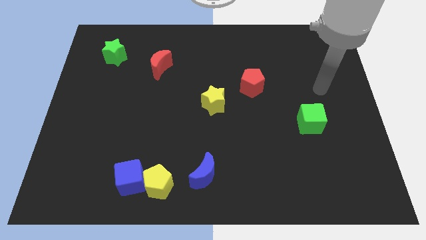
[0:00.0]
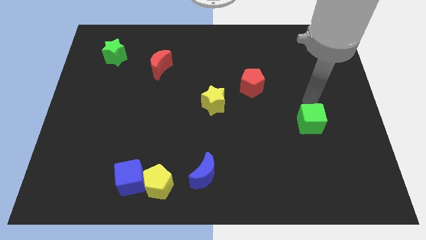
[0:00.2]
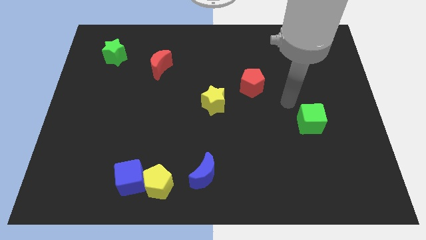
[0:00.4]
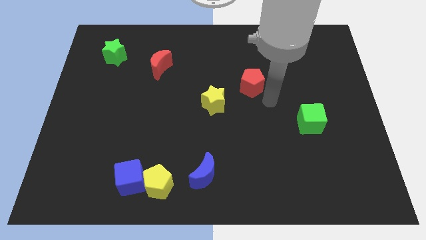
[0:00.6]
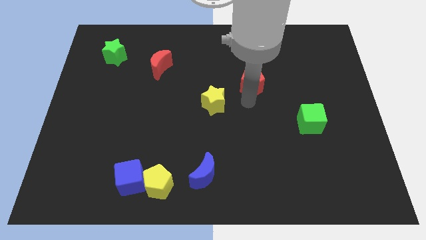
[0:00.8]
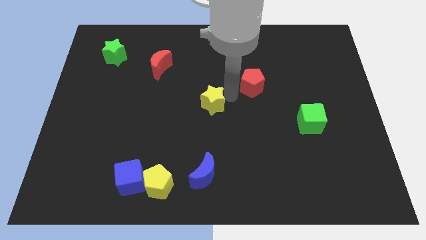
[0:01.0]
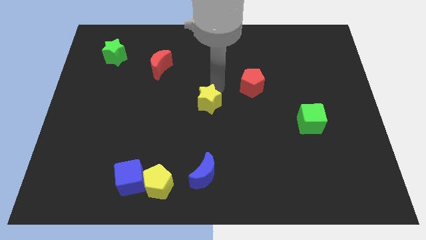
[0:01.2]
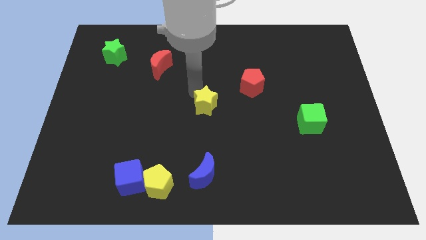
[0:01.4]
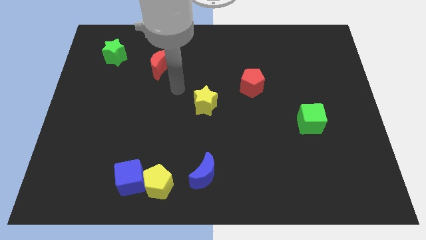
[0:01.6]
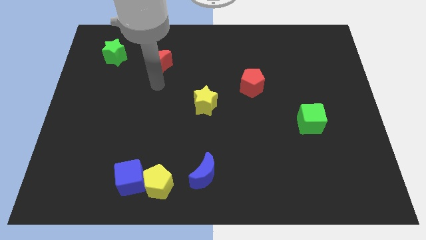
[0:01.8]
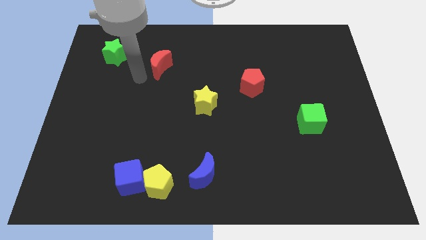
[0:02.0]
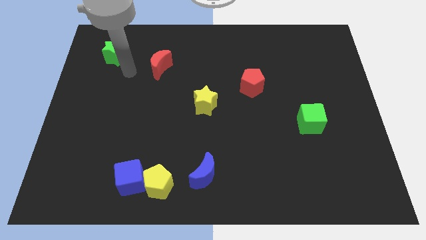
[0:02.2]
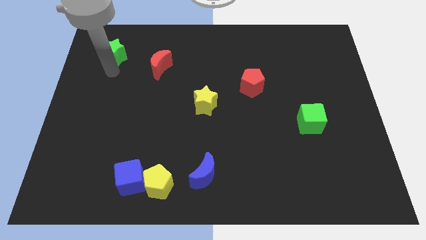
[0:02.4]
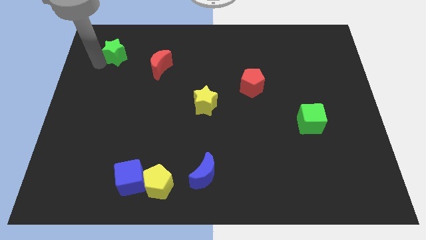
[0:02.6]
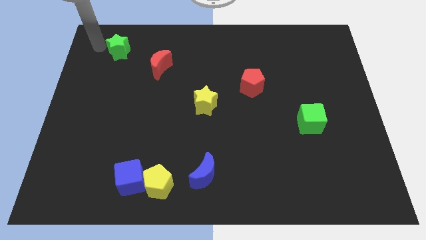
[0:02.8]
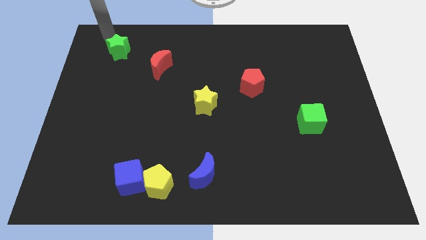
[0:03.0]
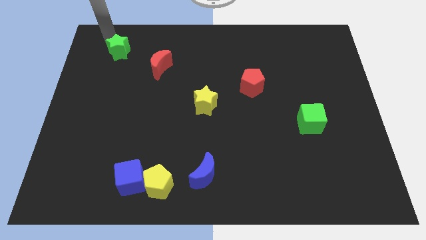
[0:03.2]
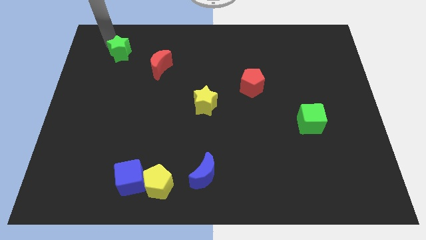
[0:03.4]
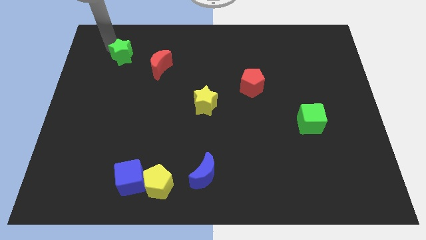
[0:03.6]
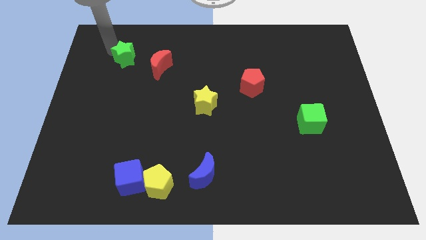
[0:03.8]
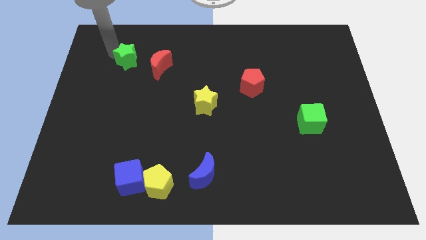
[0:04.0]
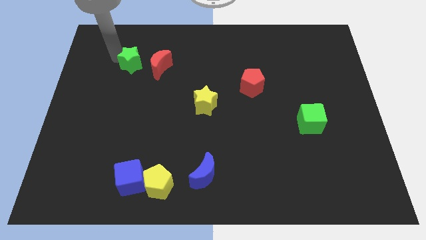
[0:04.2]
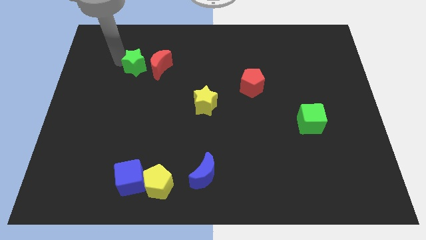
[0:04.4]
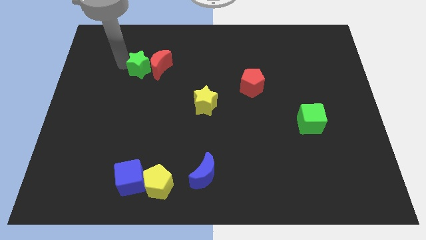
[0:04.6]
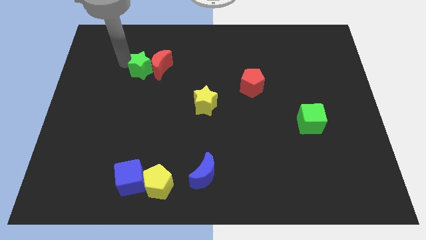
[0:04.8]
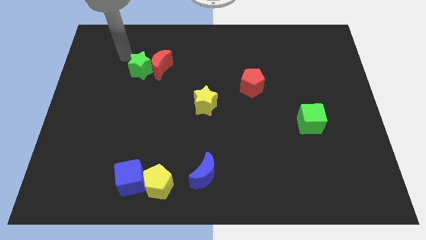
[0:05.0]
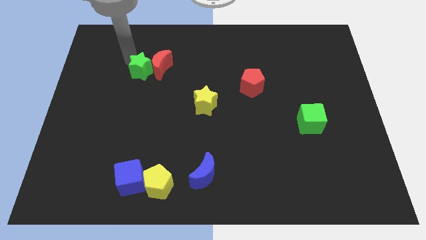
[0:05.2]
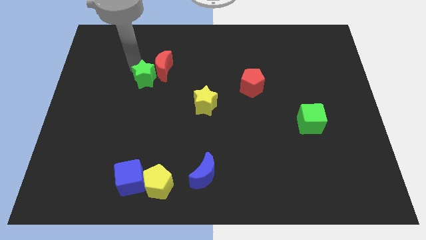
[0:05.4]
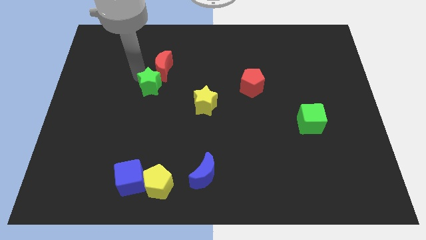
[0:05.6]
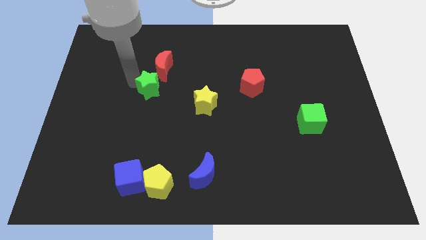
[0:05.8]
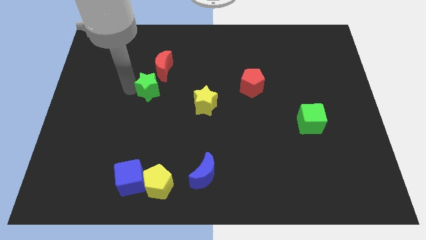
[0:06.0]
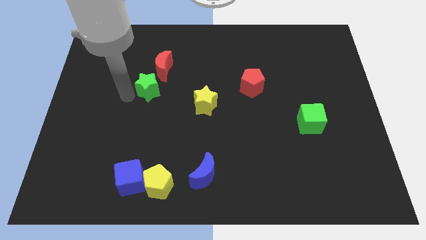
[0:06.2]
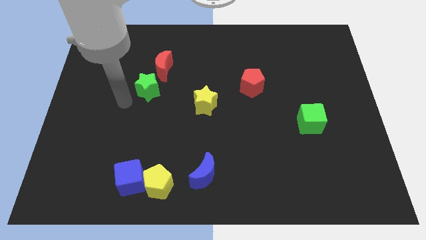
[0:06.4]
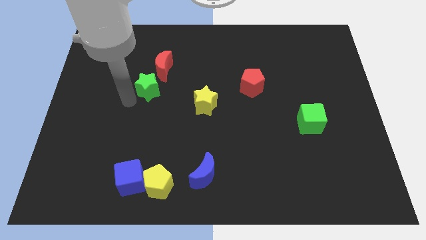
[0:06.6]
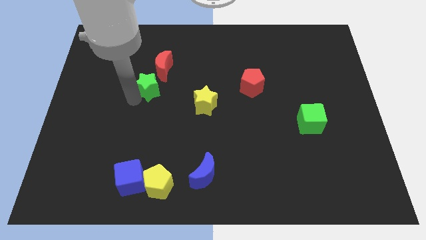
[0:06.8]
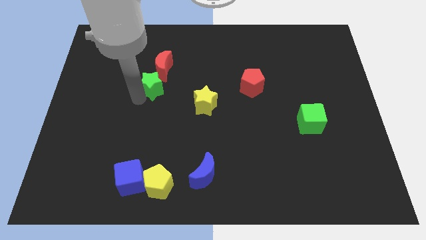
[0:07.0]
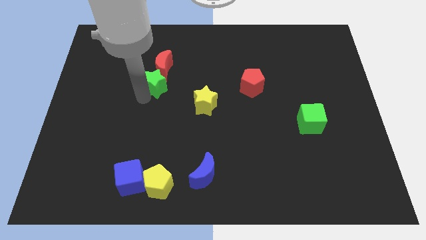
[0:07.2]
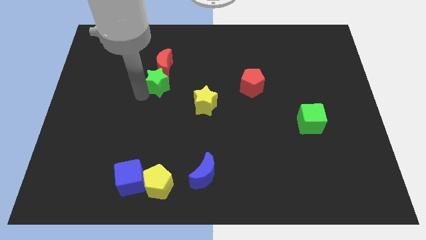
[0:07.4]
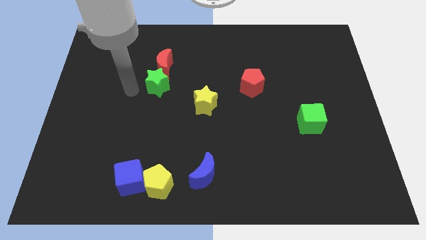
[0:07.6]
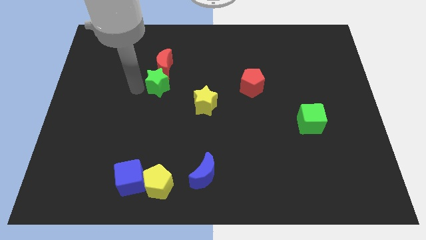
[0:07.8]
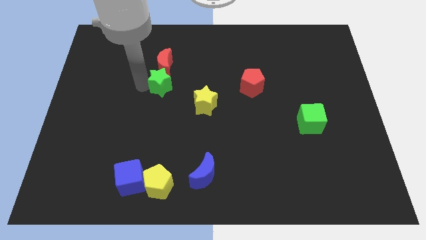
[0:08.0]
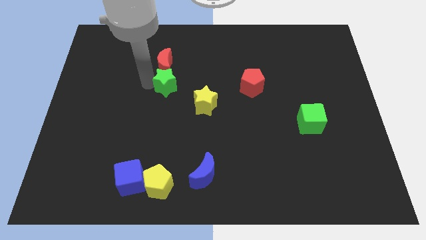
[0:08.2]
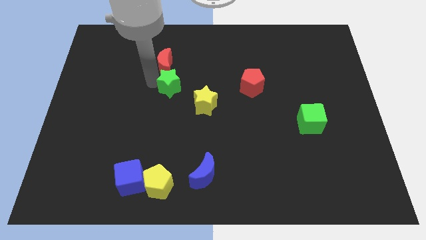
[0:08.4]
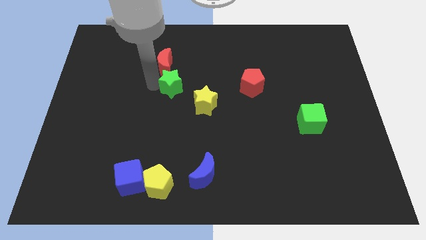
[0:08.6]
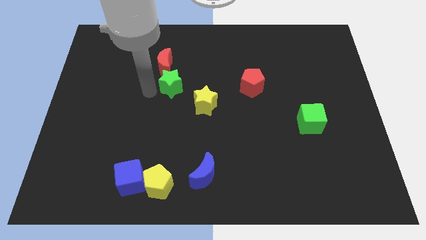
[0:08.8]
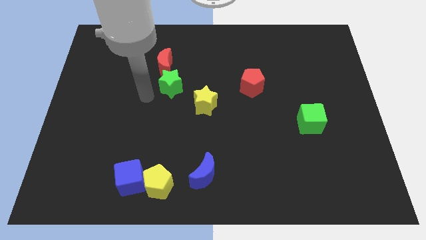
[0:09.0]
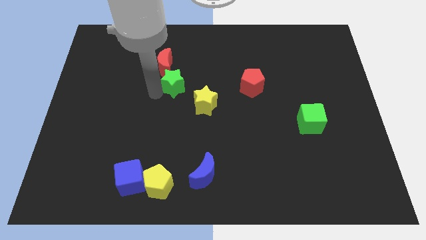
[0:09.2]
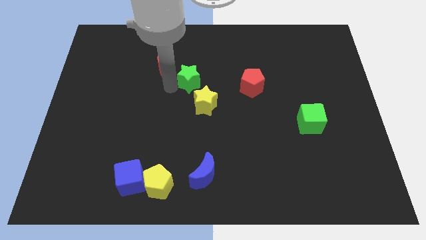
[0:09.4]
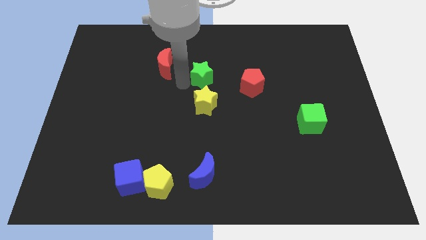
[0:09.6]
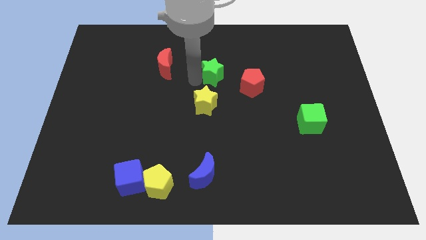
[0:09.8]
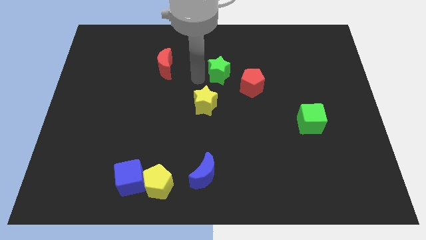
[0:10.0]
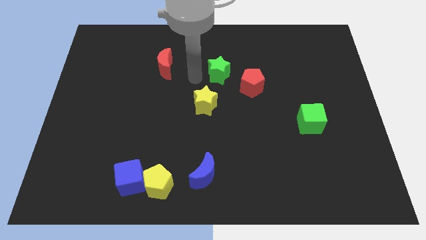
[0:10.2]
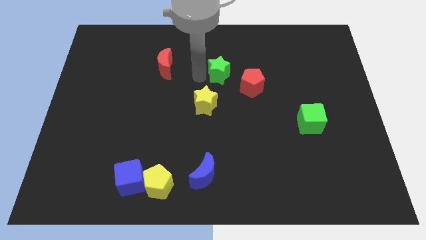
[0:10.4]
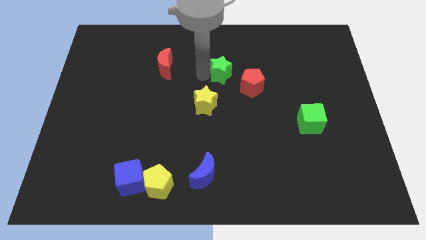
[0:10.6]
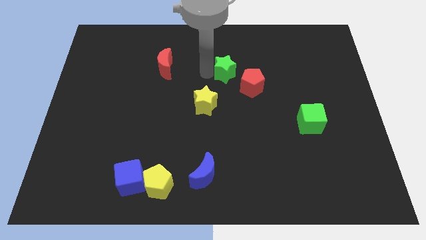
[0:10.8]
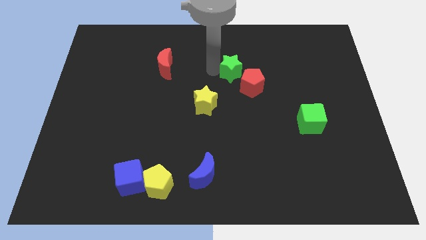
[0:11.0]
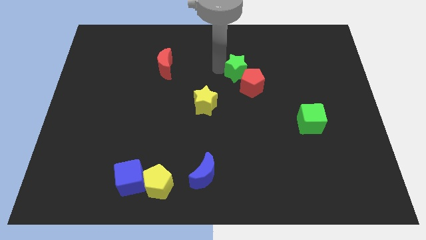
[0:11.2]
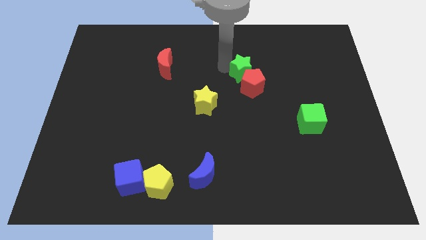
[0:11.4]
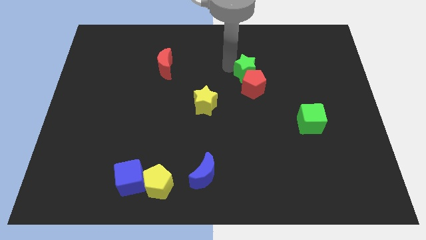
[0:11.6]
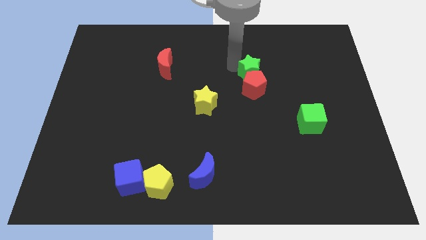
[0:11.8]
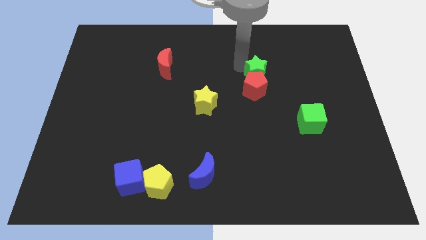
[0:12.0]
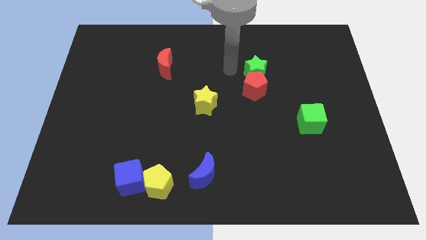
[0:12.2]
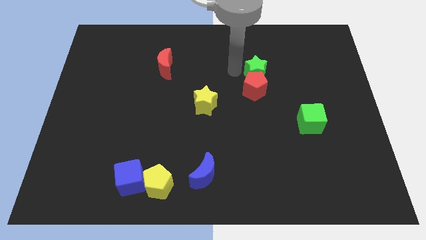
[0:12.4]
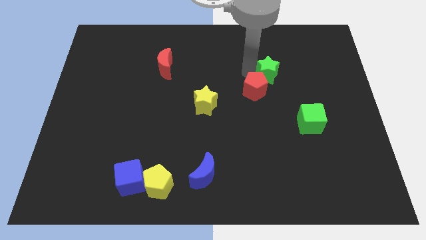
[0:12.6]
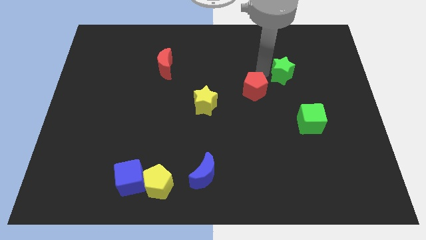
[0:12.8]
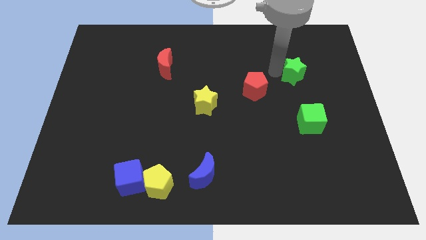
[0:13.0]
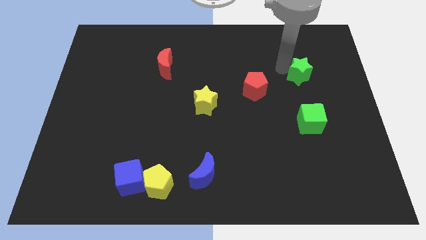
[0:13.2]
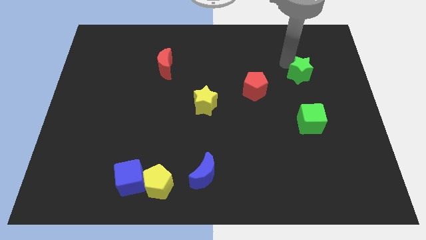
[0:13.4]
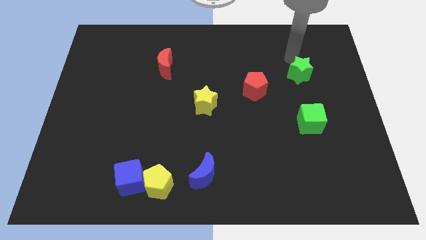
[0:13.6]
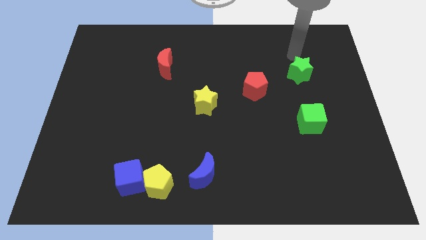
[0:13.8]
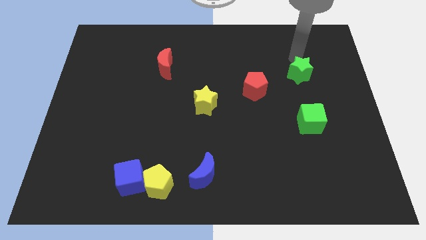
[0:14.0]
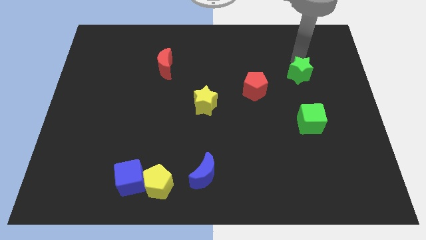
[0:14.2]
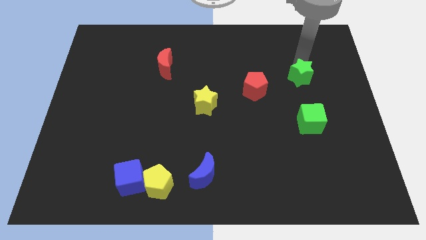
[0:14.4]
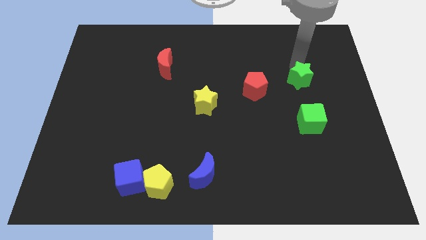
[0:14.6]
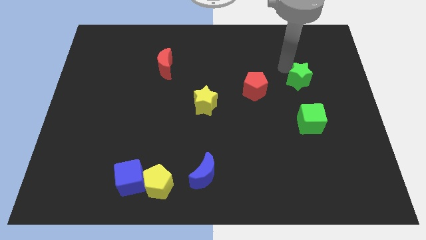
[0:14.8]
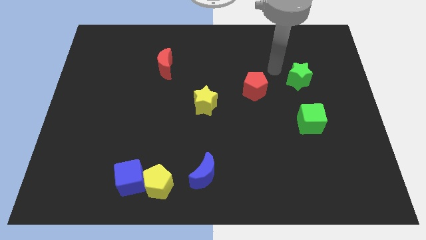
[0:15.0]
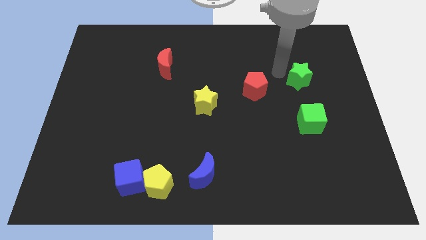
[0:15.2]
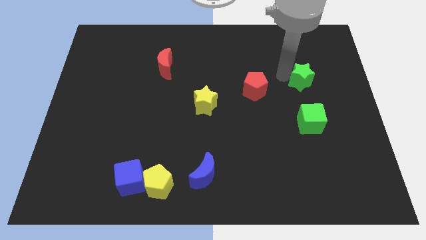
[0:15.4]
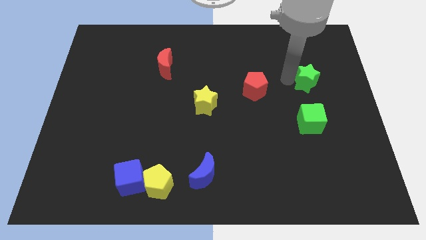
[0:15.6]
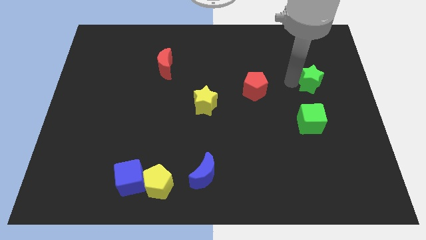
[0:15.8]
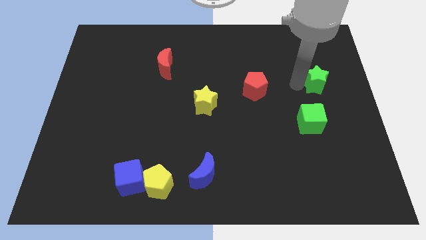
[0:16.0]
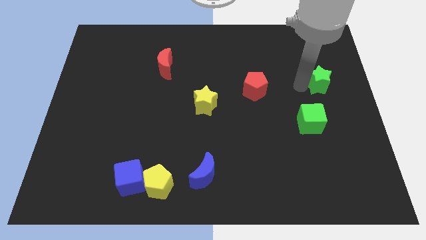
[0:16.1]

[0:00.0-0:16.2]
put the green star to the center right
